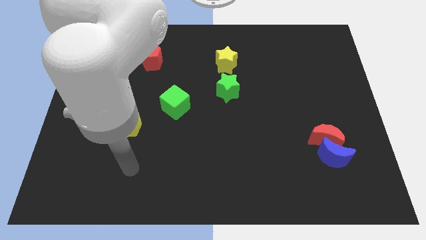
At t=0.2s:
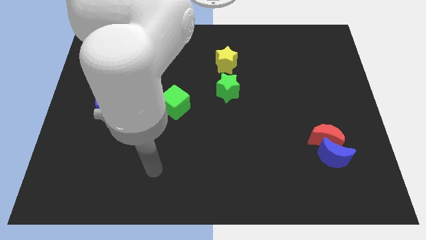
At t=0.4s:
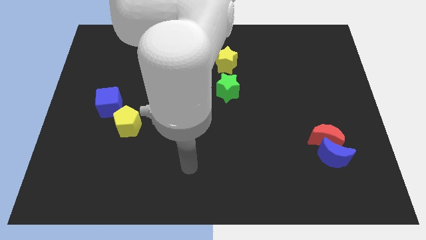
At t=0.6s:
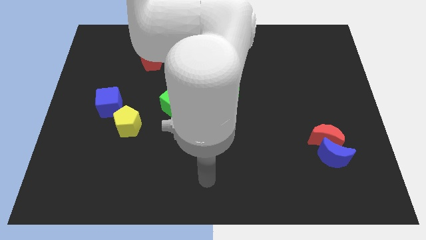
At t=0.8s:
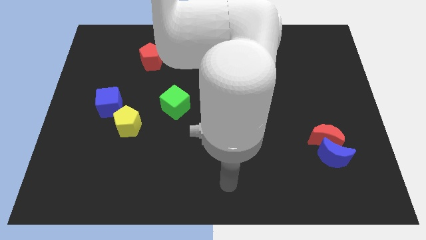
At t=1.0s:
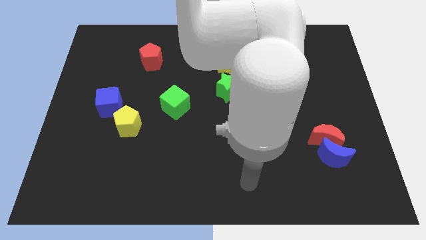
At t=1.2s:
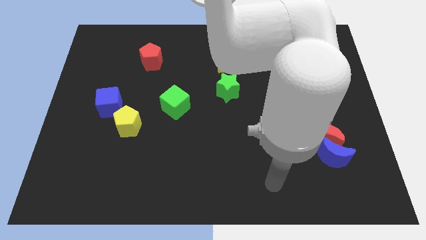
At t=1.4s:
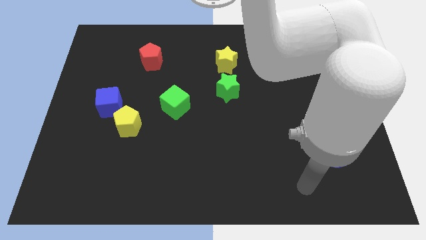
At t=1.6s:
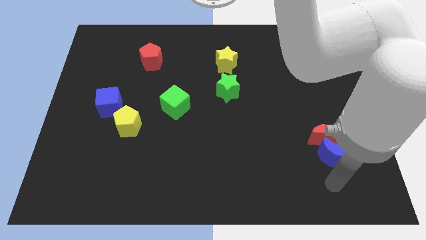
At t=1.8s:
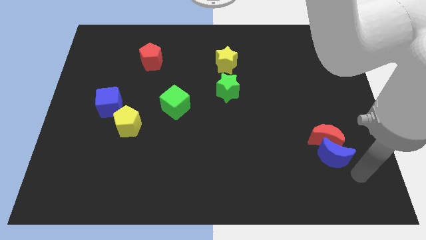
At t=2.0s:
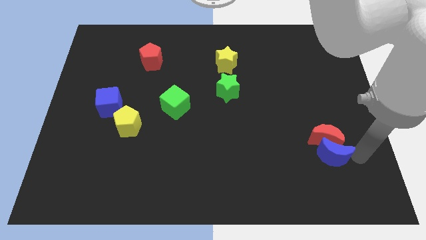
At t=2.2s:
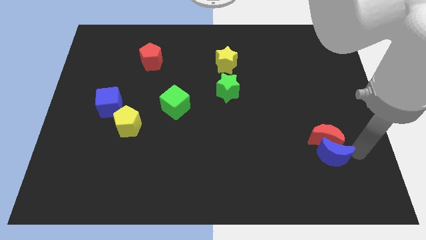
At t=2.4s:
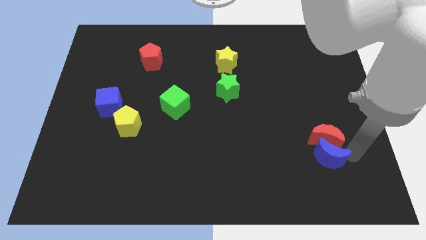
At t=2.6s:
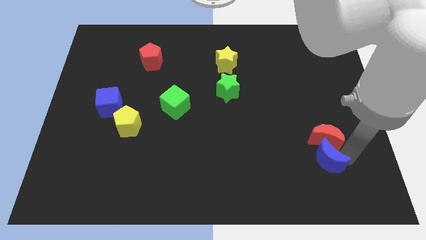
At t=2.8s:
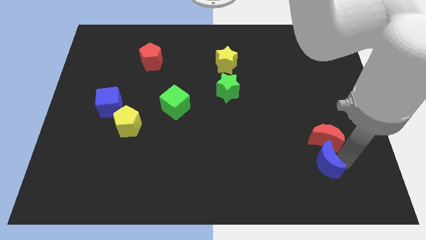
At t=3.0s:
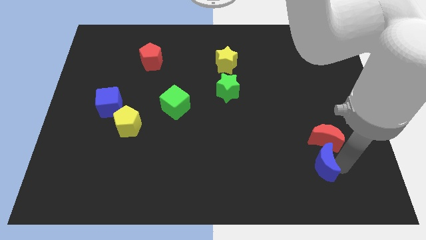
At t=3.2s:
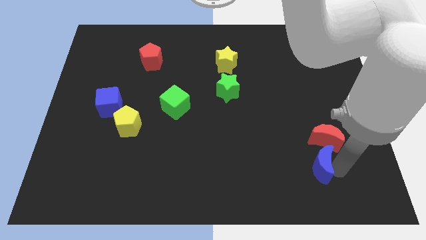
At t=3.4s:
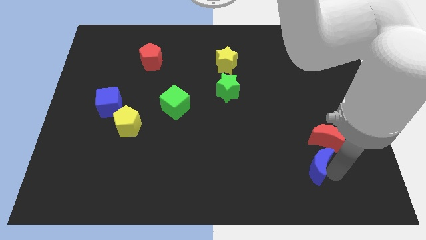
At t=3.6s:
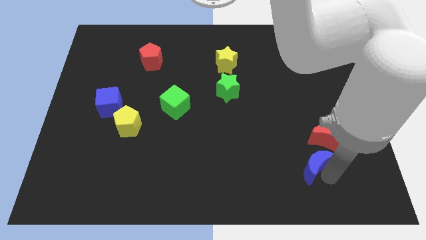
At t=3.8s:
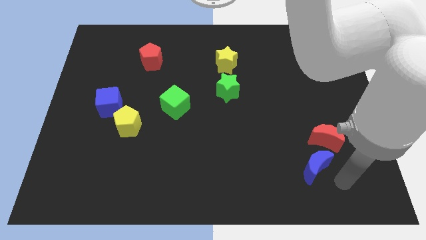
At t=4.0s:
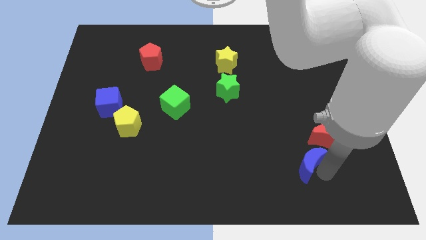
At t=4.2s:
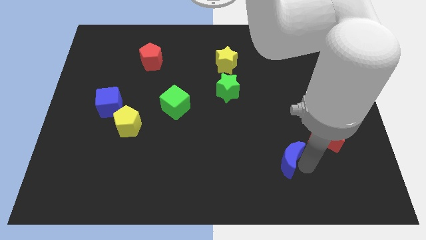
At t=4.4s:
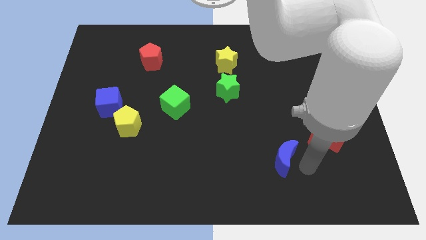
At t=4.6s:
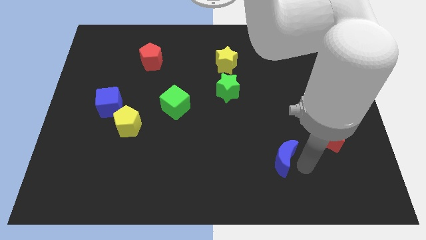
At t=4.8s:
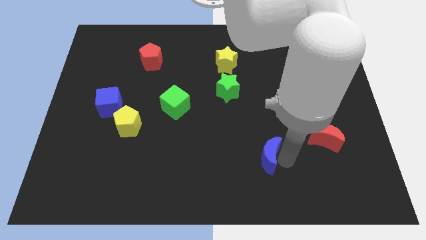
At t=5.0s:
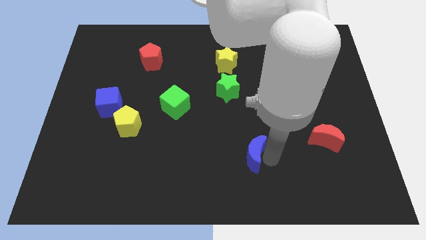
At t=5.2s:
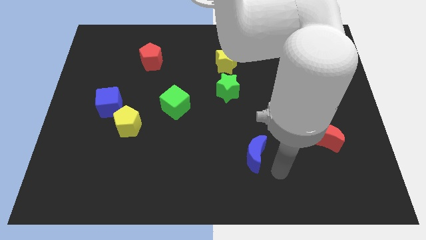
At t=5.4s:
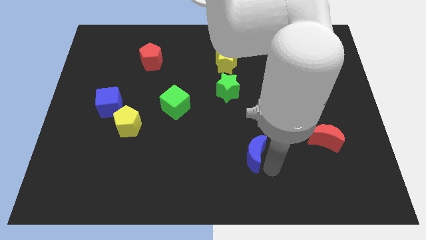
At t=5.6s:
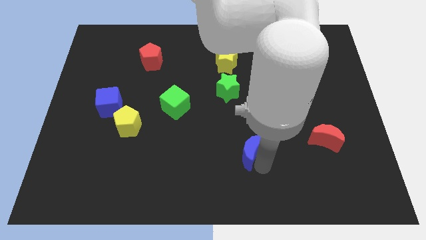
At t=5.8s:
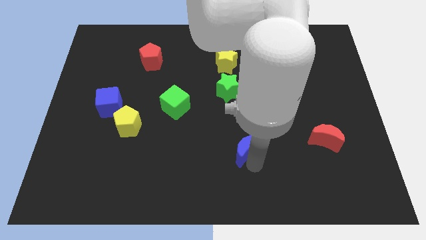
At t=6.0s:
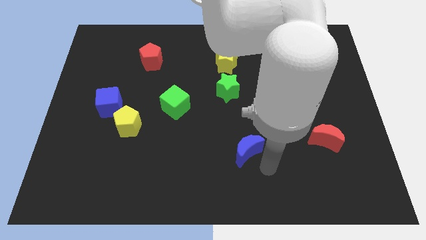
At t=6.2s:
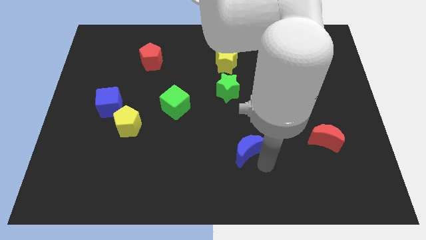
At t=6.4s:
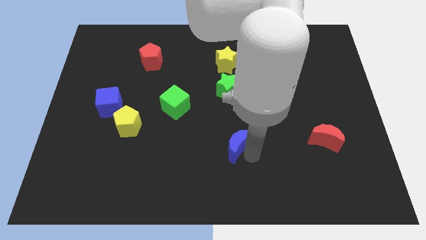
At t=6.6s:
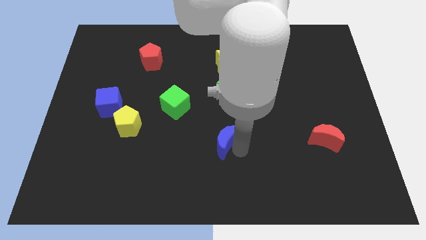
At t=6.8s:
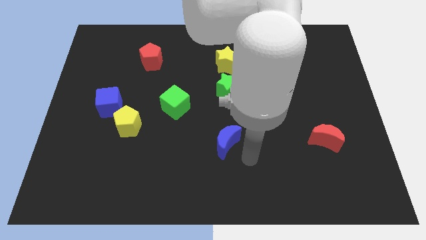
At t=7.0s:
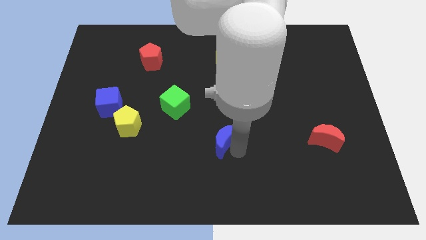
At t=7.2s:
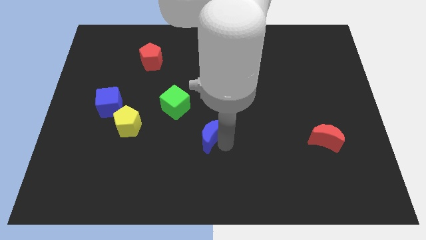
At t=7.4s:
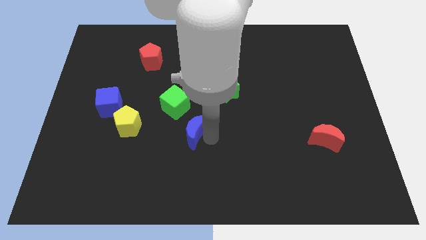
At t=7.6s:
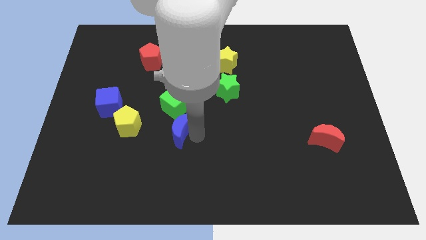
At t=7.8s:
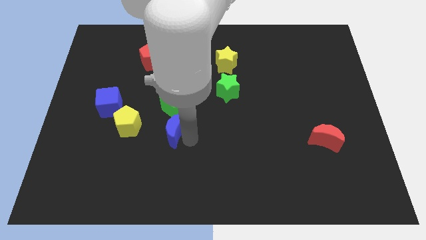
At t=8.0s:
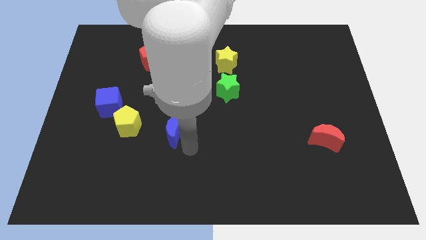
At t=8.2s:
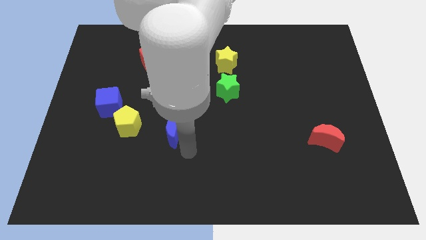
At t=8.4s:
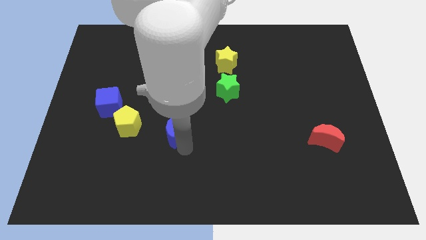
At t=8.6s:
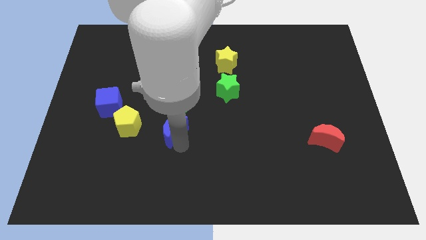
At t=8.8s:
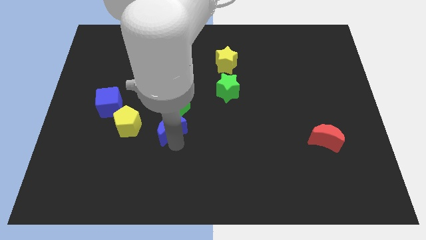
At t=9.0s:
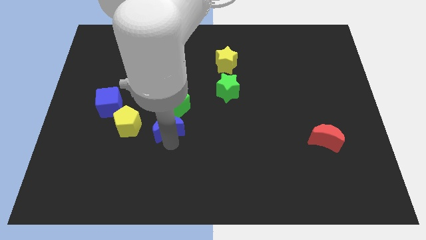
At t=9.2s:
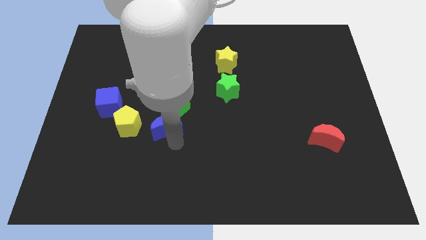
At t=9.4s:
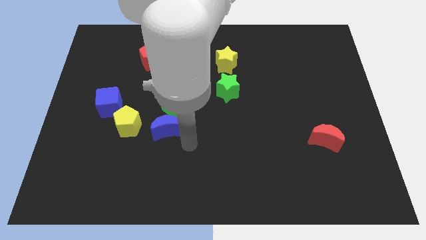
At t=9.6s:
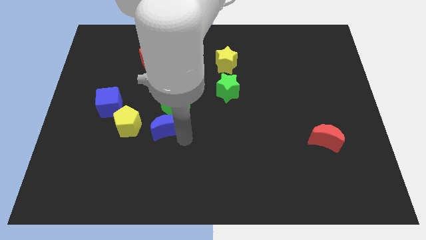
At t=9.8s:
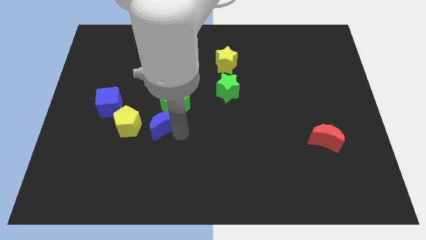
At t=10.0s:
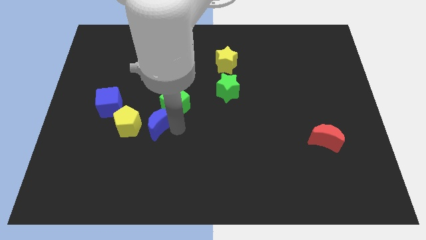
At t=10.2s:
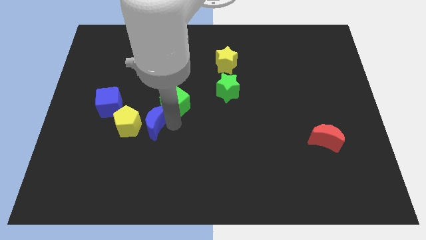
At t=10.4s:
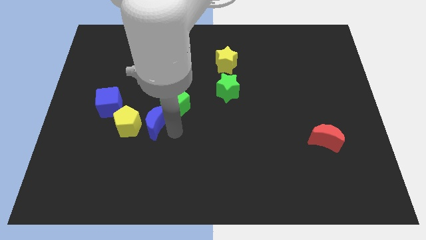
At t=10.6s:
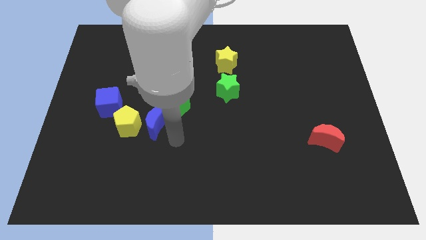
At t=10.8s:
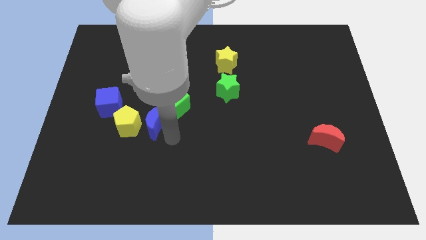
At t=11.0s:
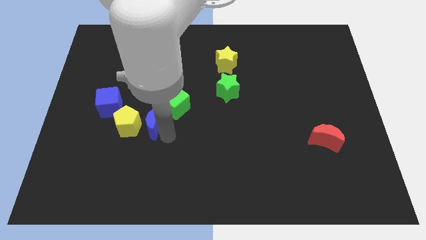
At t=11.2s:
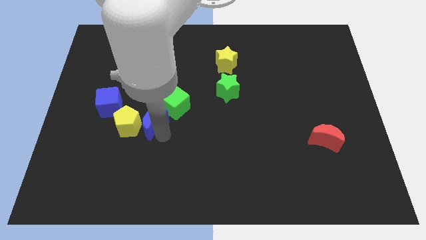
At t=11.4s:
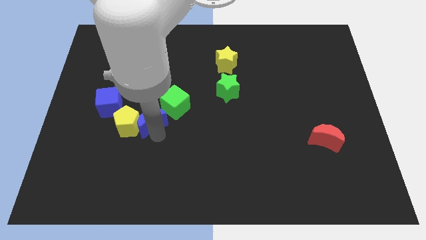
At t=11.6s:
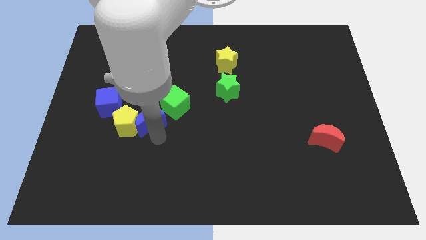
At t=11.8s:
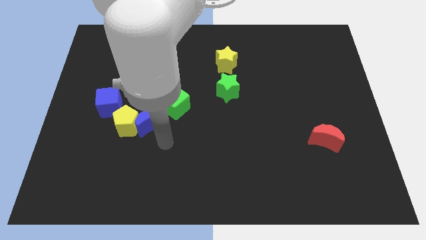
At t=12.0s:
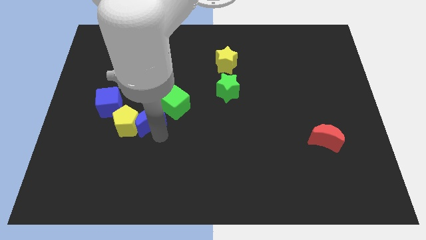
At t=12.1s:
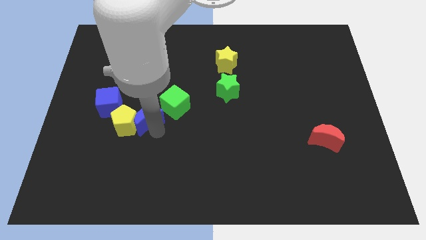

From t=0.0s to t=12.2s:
move the blue moon to the right side of the blue cube

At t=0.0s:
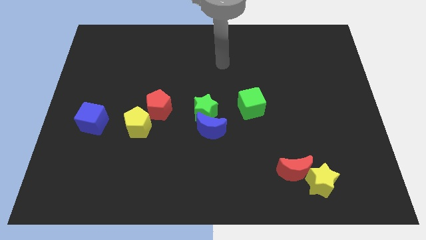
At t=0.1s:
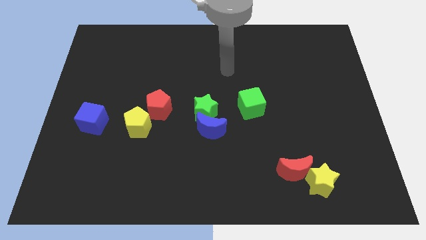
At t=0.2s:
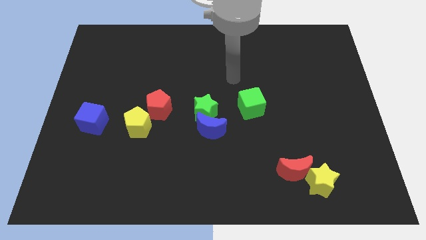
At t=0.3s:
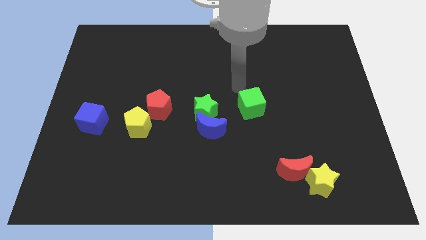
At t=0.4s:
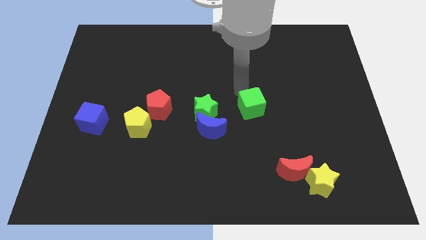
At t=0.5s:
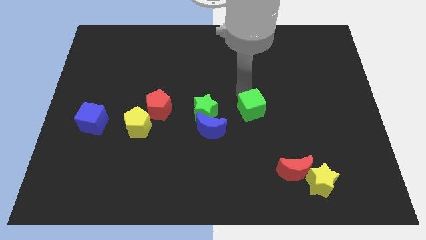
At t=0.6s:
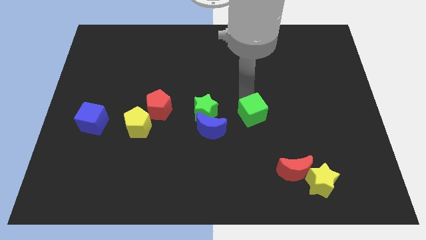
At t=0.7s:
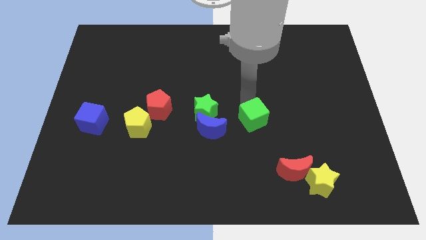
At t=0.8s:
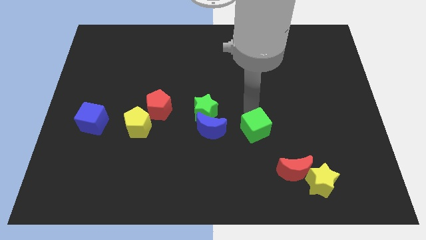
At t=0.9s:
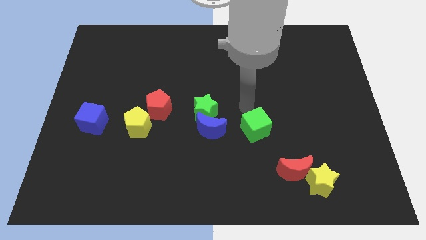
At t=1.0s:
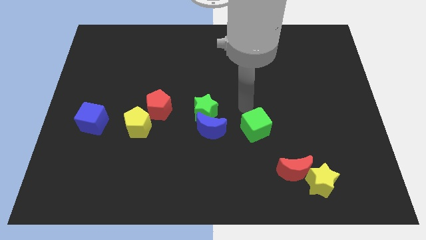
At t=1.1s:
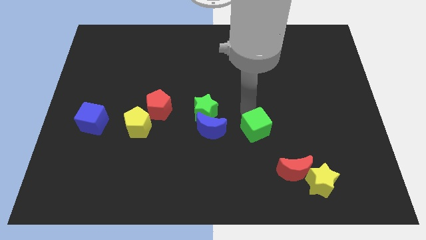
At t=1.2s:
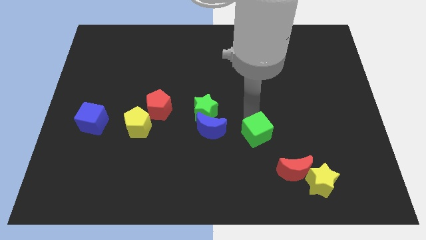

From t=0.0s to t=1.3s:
slide the green cube diagonally up and to the left of the red moon

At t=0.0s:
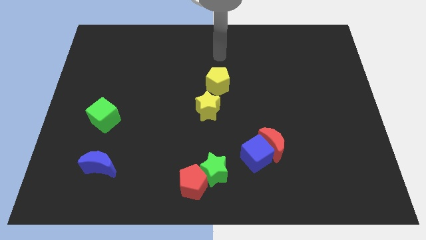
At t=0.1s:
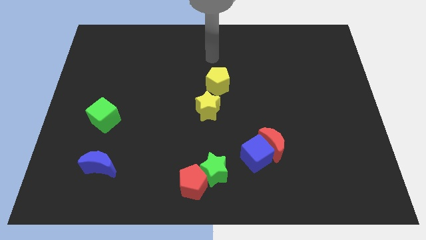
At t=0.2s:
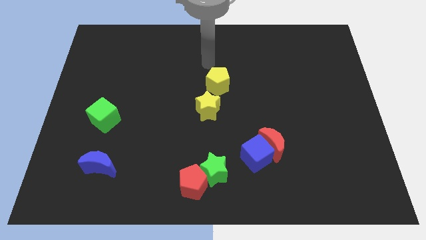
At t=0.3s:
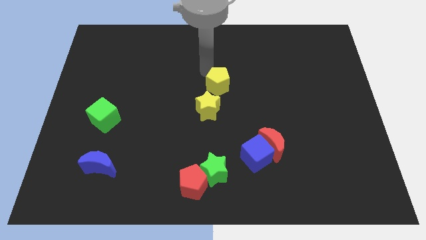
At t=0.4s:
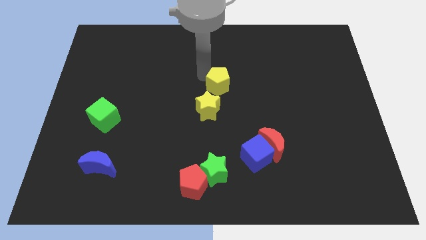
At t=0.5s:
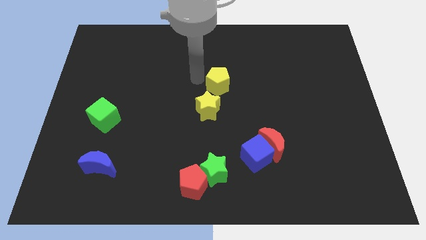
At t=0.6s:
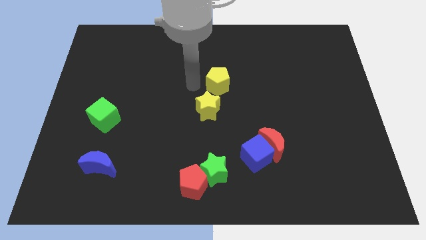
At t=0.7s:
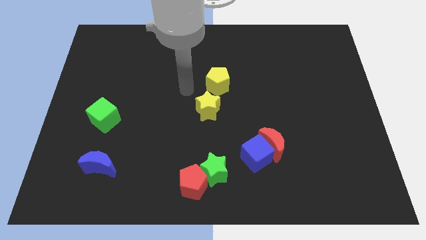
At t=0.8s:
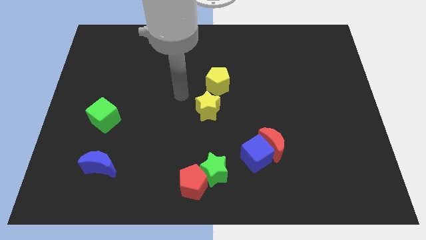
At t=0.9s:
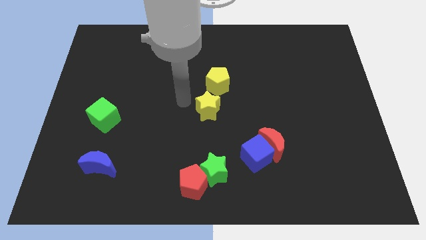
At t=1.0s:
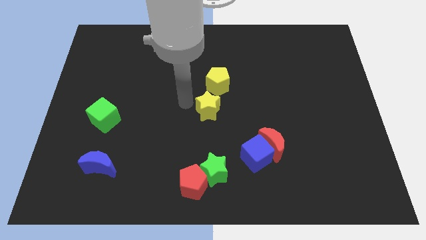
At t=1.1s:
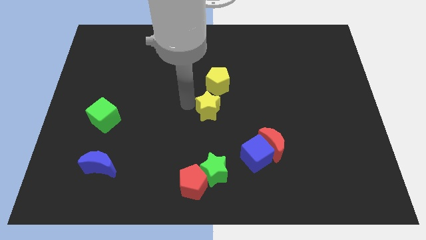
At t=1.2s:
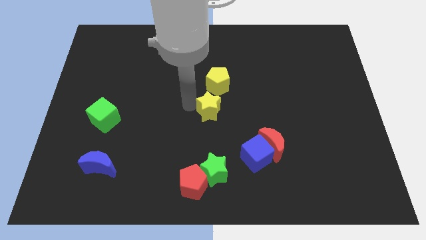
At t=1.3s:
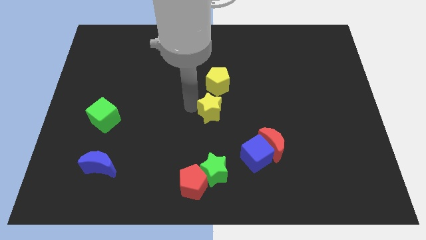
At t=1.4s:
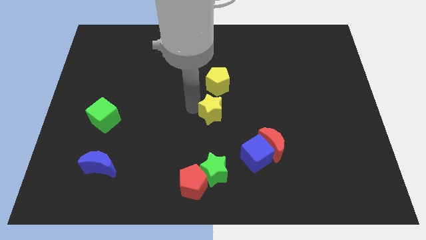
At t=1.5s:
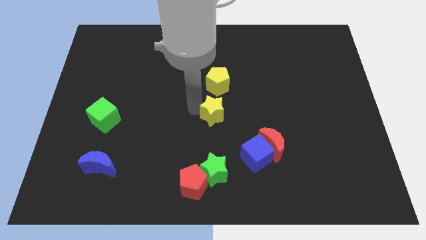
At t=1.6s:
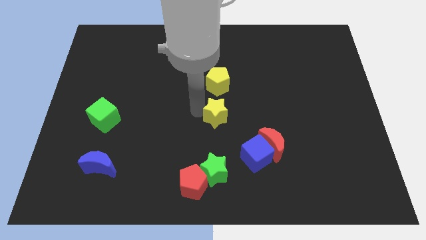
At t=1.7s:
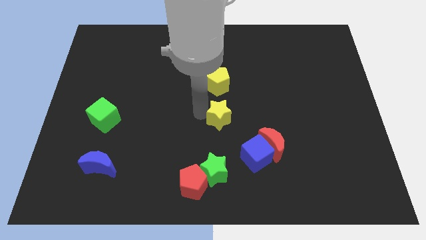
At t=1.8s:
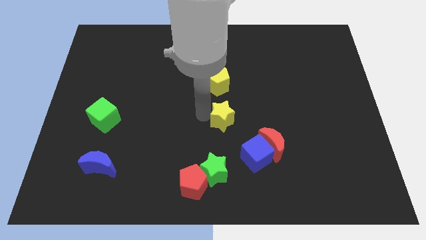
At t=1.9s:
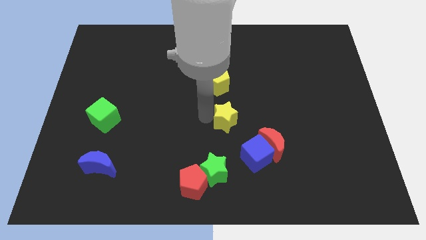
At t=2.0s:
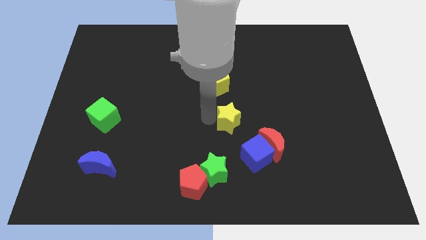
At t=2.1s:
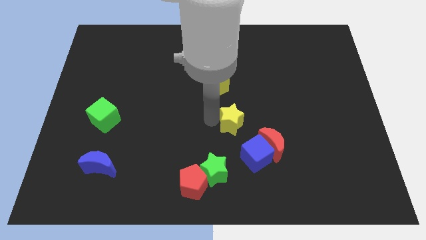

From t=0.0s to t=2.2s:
push the yellow star to the top side of the blue cube
